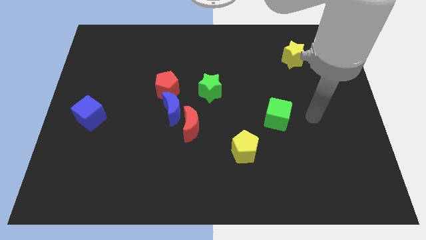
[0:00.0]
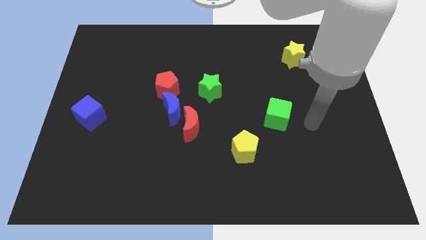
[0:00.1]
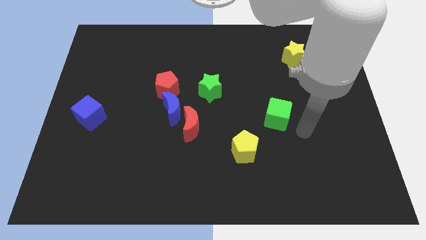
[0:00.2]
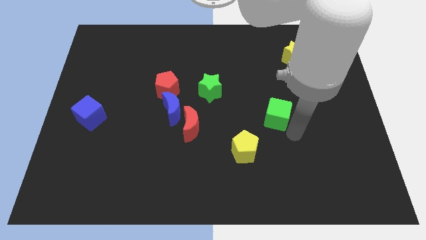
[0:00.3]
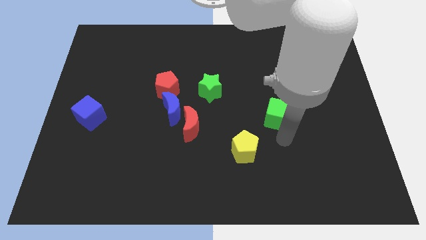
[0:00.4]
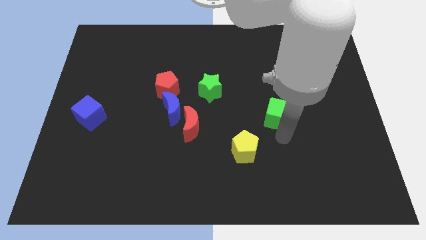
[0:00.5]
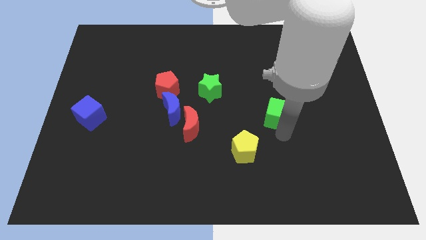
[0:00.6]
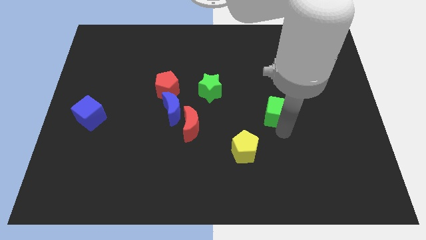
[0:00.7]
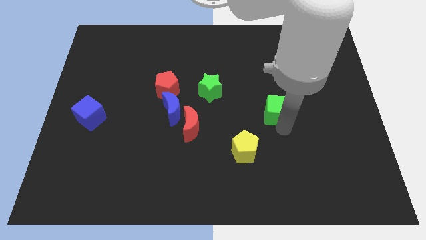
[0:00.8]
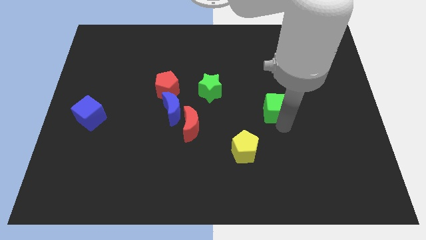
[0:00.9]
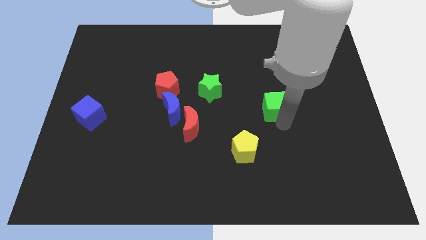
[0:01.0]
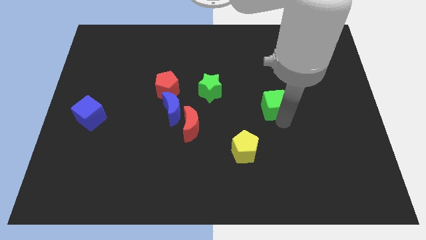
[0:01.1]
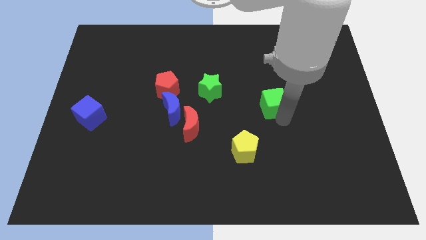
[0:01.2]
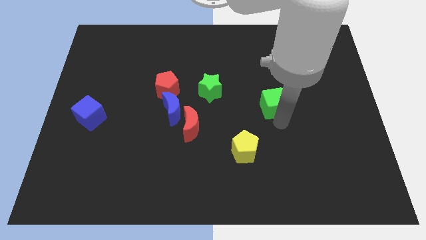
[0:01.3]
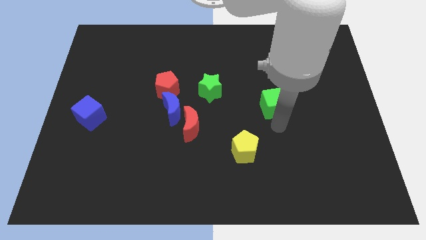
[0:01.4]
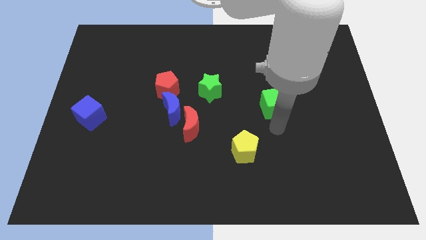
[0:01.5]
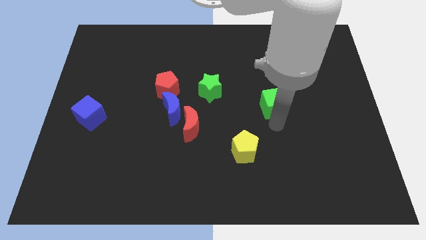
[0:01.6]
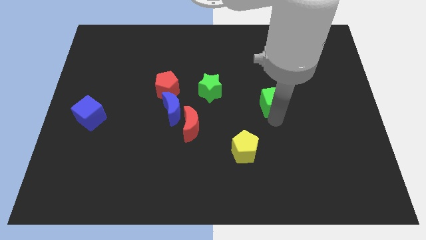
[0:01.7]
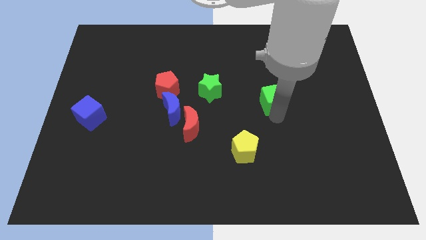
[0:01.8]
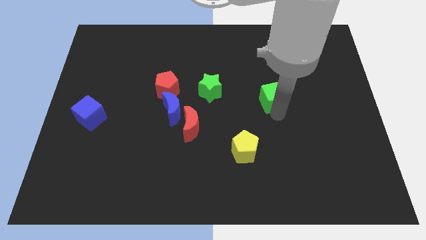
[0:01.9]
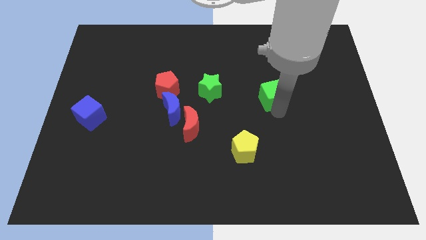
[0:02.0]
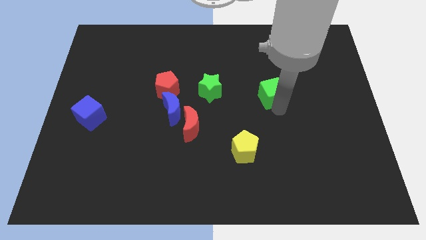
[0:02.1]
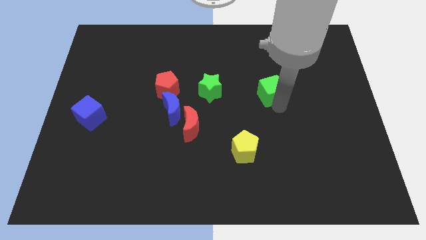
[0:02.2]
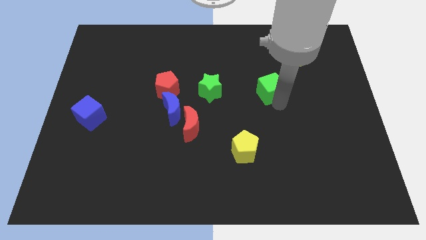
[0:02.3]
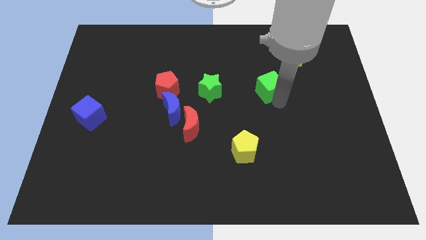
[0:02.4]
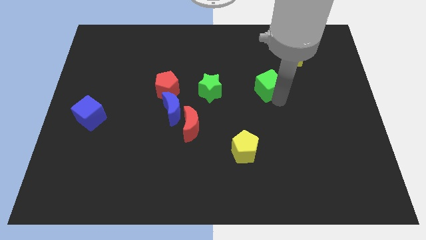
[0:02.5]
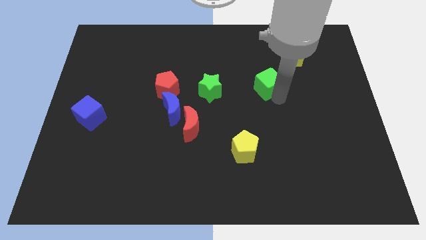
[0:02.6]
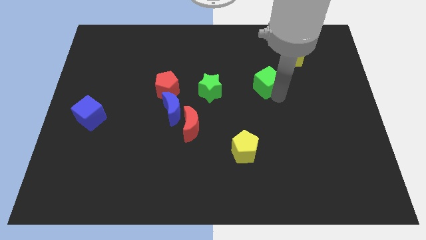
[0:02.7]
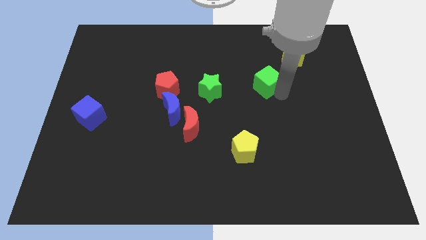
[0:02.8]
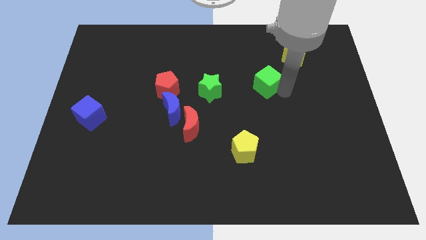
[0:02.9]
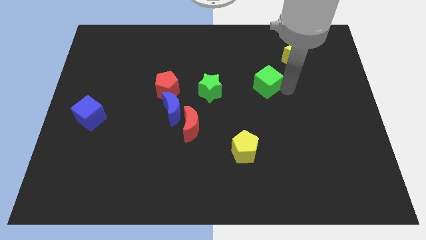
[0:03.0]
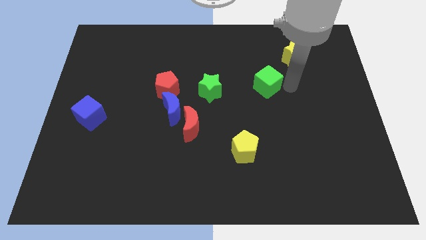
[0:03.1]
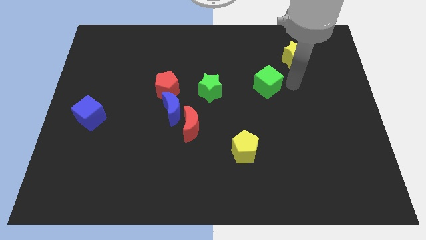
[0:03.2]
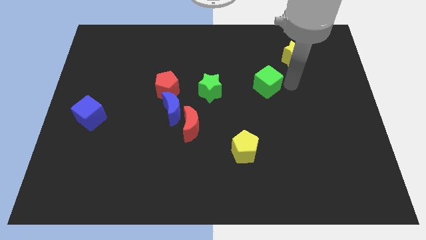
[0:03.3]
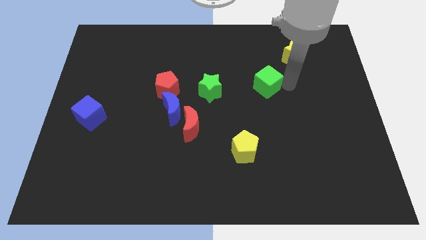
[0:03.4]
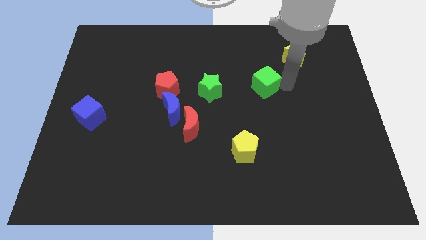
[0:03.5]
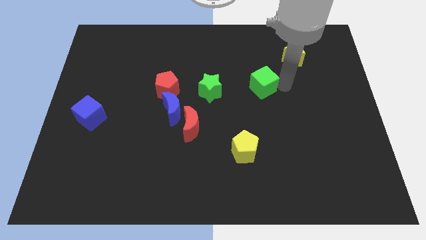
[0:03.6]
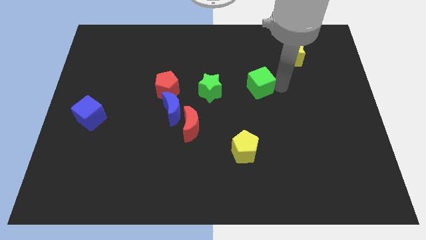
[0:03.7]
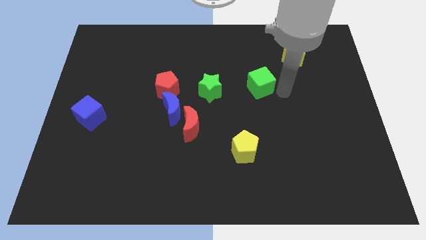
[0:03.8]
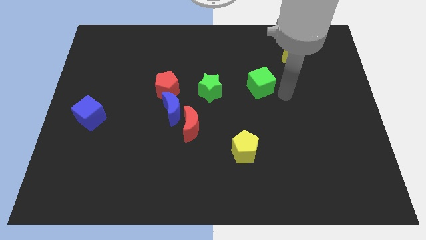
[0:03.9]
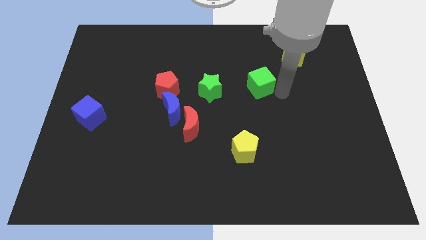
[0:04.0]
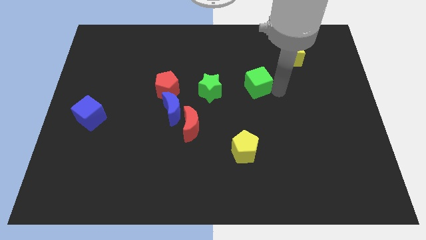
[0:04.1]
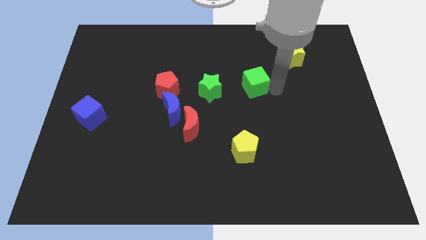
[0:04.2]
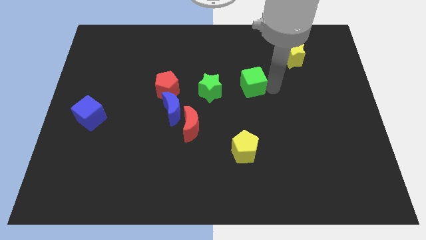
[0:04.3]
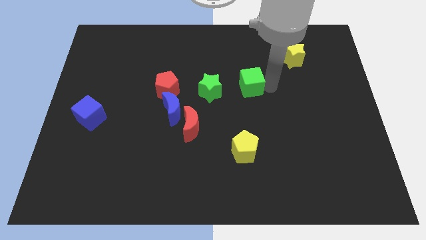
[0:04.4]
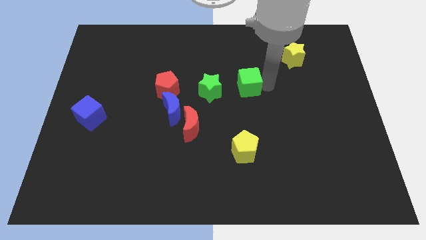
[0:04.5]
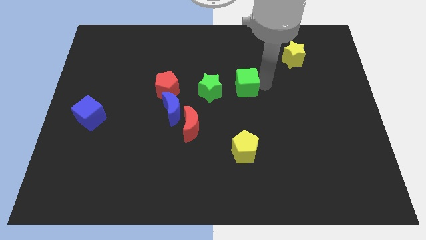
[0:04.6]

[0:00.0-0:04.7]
put the green cube to the top right of the green star

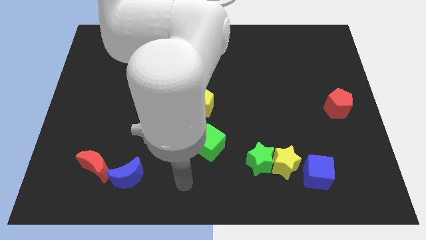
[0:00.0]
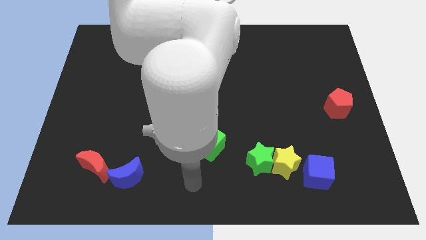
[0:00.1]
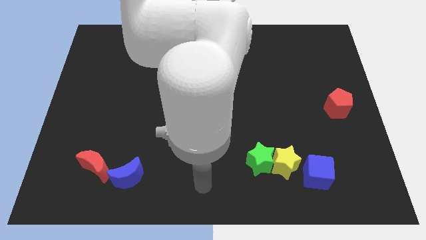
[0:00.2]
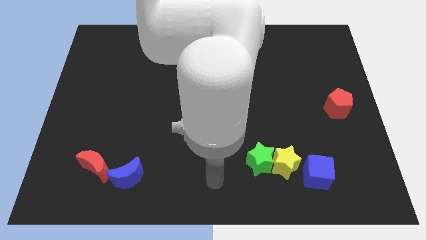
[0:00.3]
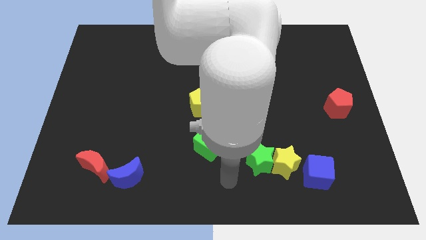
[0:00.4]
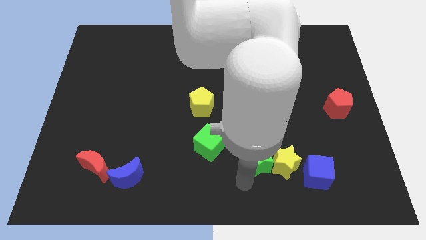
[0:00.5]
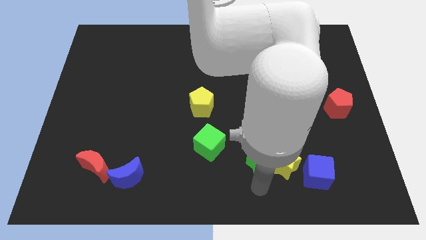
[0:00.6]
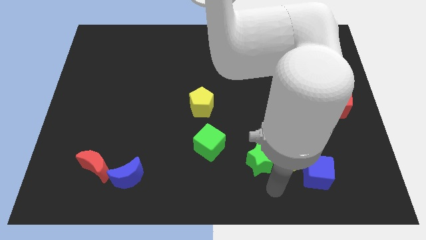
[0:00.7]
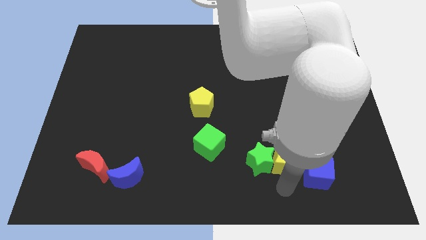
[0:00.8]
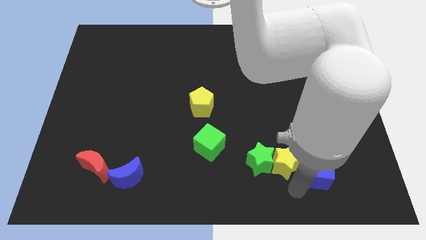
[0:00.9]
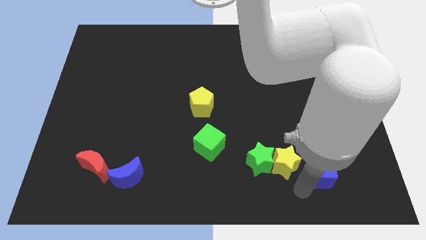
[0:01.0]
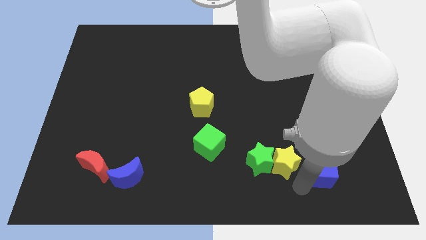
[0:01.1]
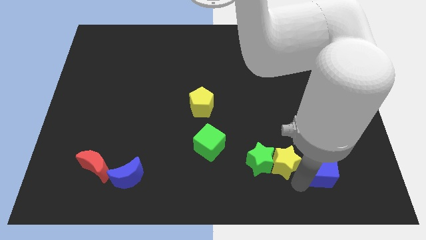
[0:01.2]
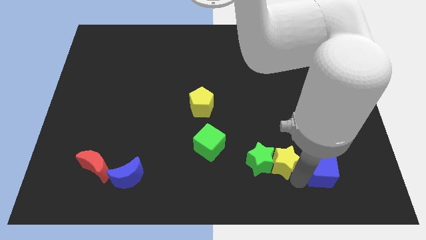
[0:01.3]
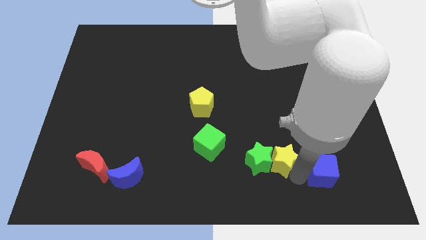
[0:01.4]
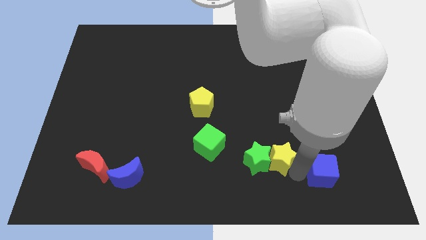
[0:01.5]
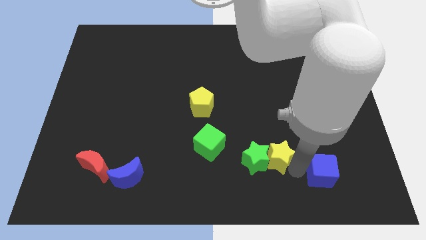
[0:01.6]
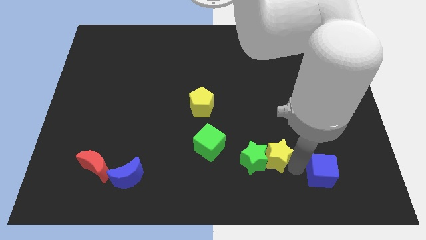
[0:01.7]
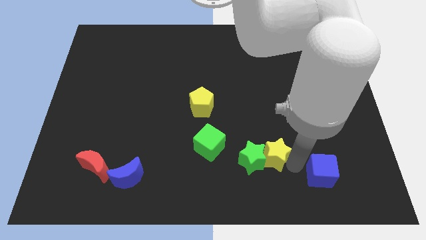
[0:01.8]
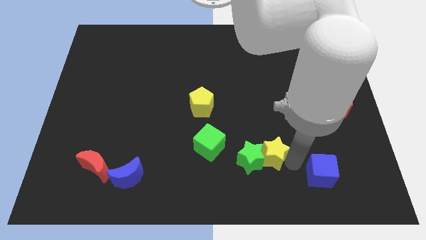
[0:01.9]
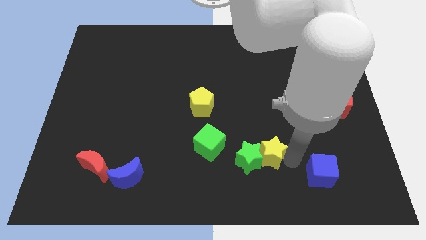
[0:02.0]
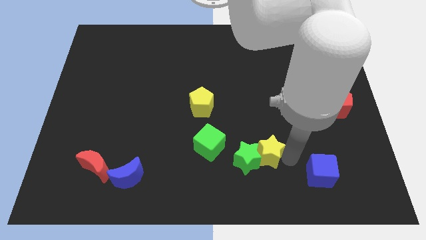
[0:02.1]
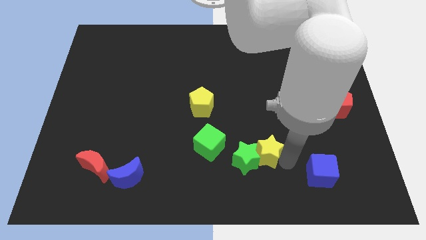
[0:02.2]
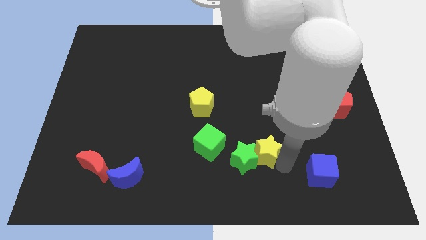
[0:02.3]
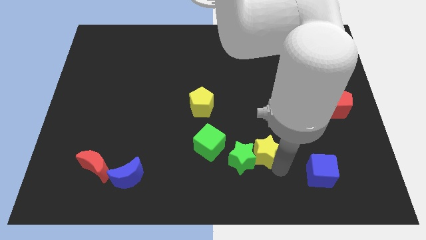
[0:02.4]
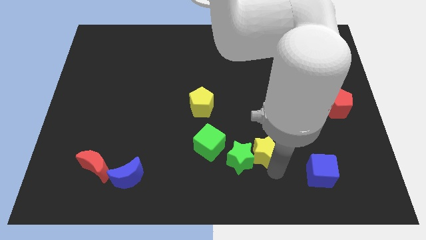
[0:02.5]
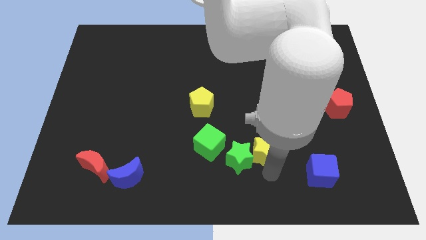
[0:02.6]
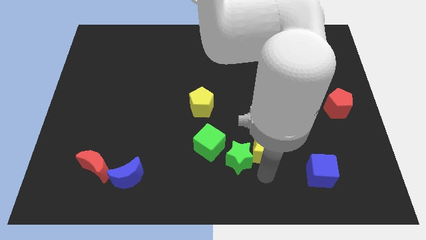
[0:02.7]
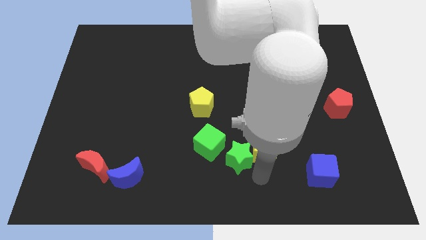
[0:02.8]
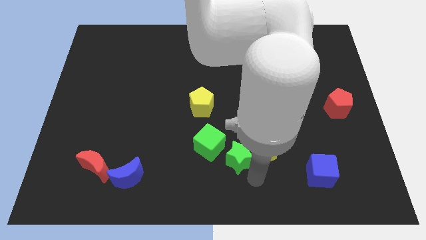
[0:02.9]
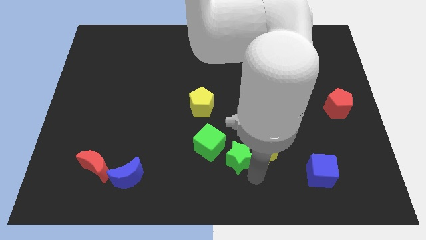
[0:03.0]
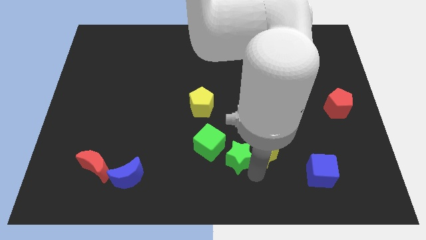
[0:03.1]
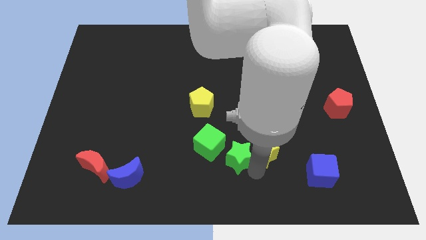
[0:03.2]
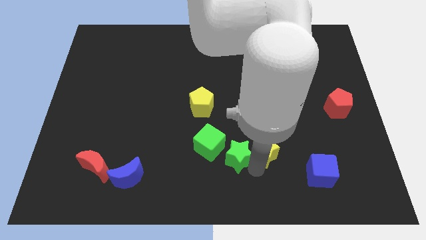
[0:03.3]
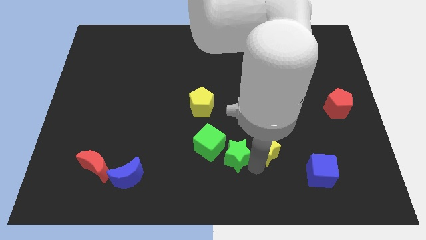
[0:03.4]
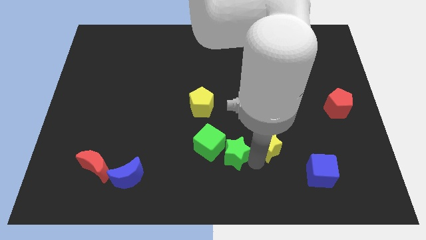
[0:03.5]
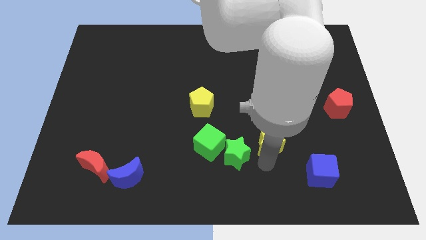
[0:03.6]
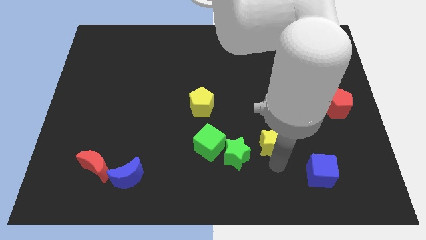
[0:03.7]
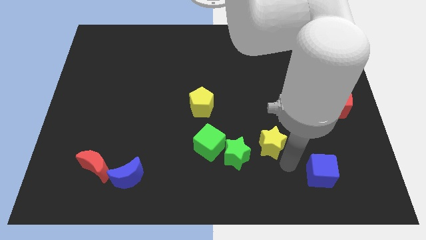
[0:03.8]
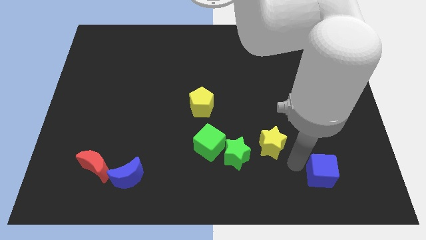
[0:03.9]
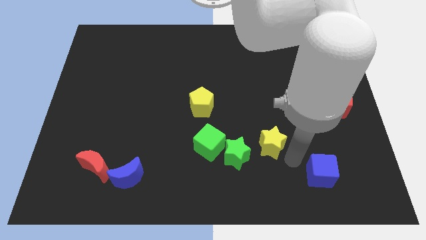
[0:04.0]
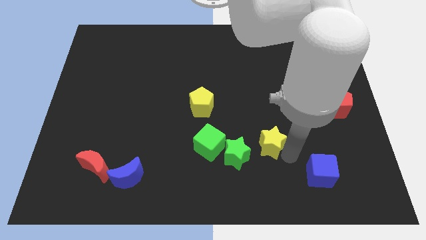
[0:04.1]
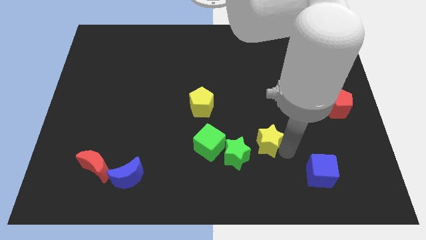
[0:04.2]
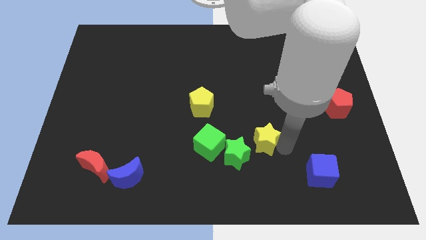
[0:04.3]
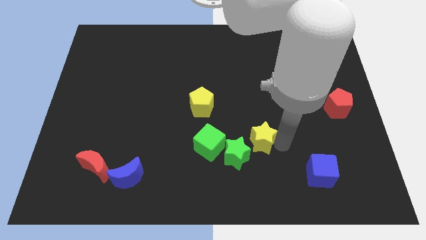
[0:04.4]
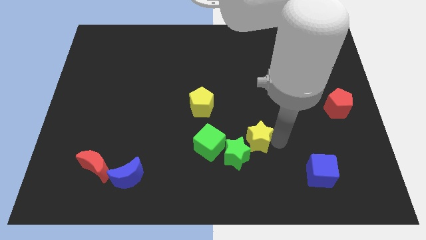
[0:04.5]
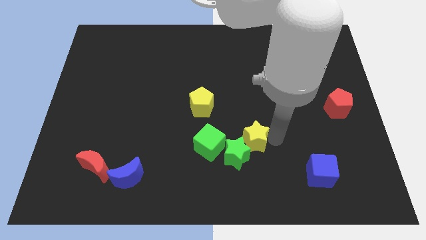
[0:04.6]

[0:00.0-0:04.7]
put the yellow star to the top of the green star
